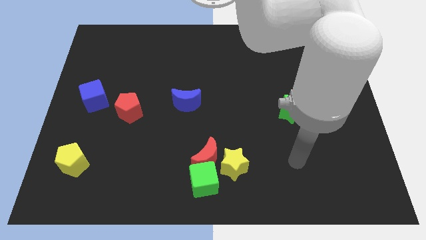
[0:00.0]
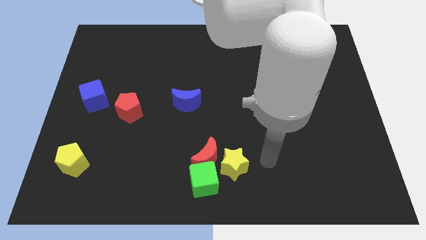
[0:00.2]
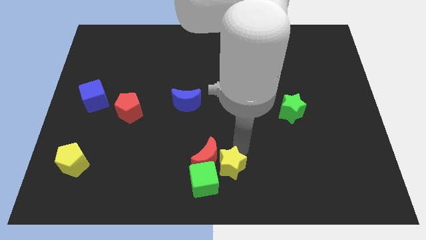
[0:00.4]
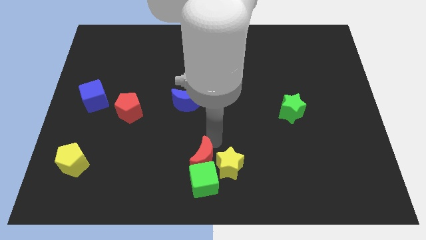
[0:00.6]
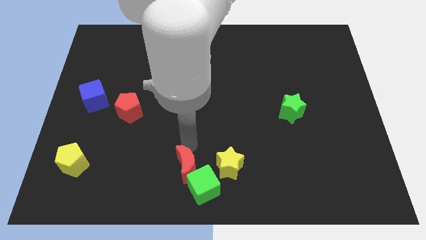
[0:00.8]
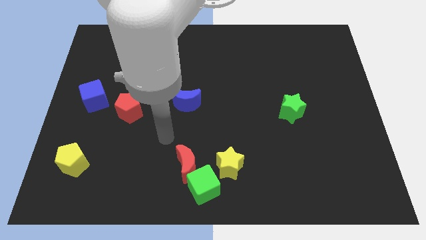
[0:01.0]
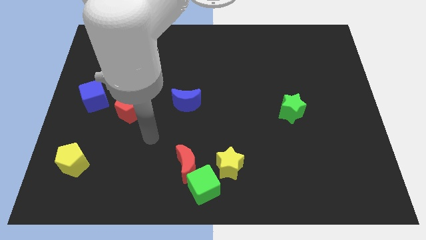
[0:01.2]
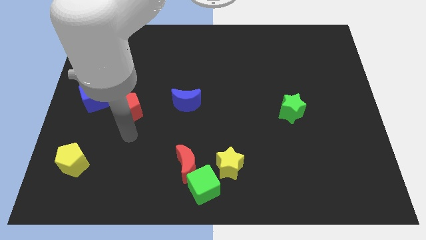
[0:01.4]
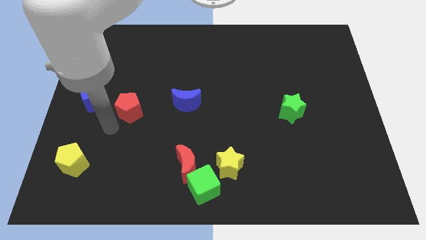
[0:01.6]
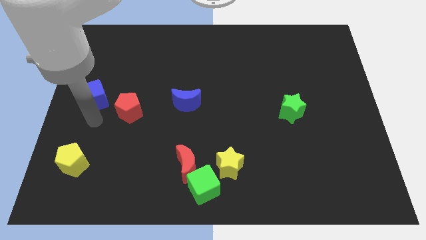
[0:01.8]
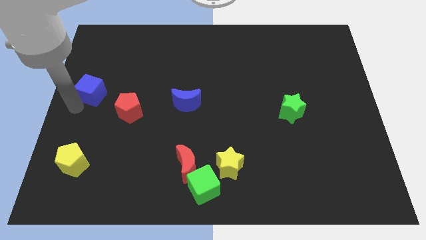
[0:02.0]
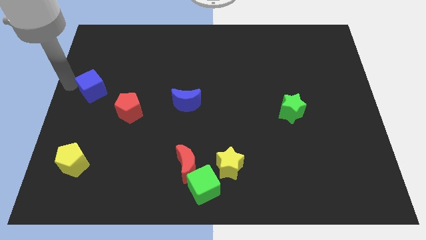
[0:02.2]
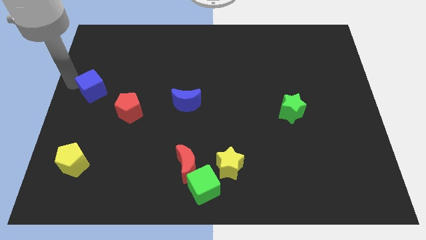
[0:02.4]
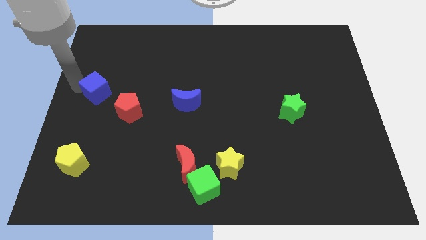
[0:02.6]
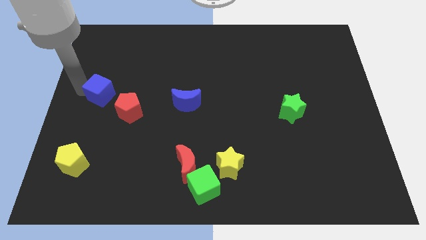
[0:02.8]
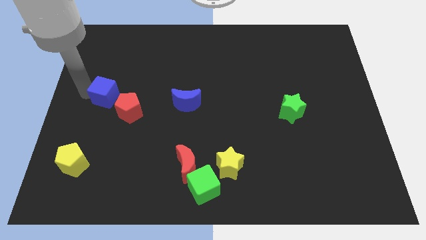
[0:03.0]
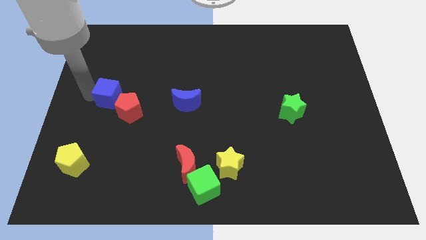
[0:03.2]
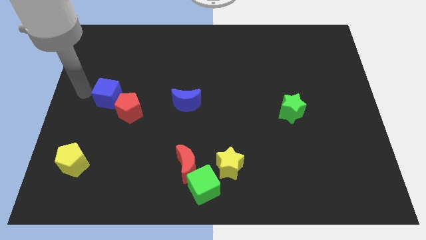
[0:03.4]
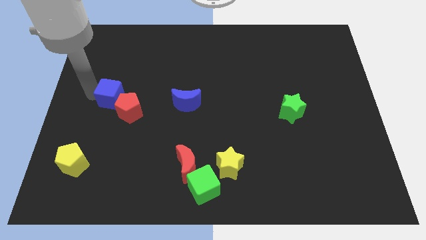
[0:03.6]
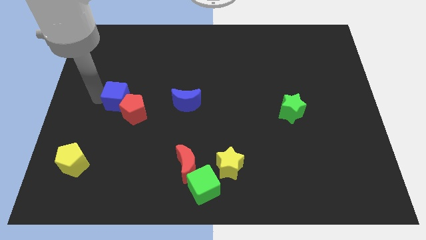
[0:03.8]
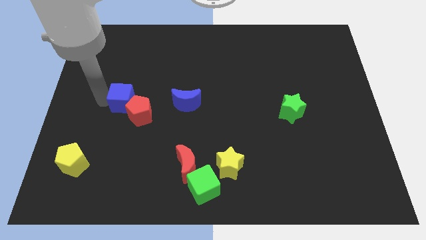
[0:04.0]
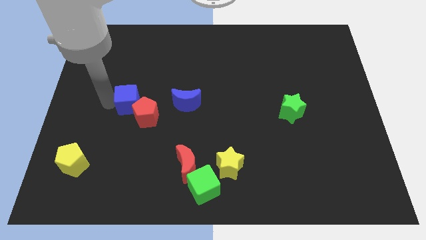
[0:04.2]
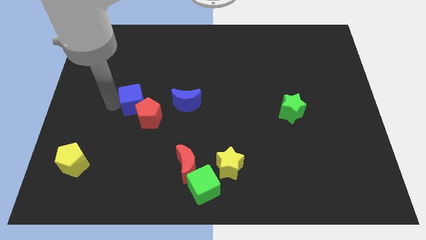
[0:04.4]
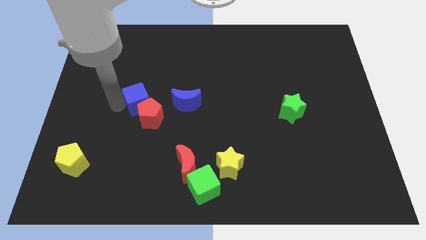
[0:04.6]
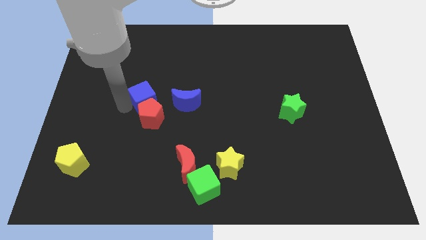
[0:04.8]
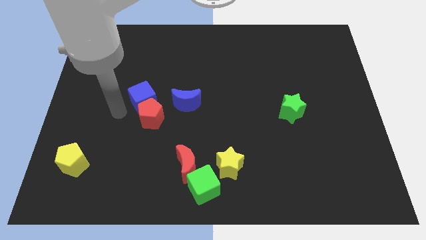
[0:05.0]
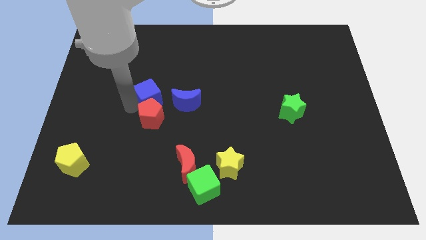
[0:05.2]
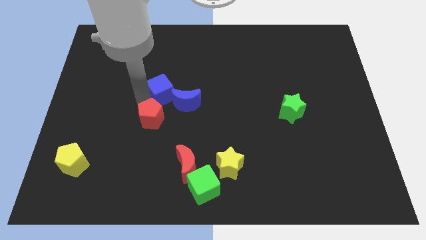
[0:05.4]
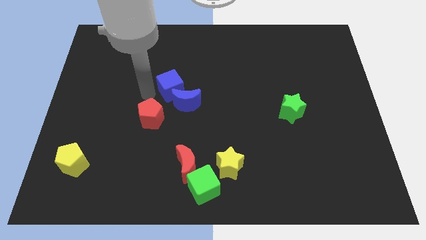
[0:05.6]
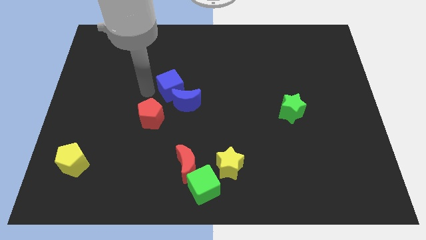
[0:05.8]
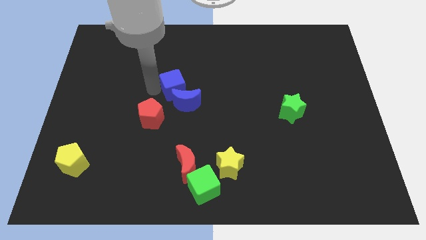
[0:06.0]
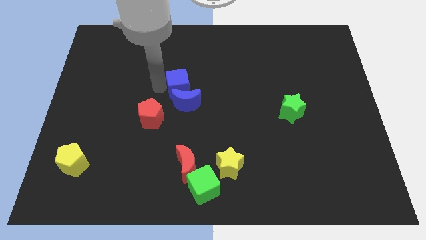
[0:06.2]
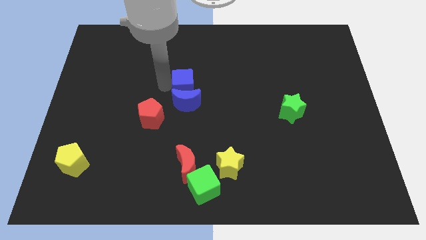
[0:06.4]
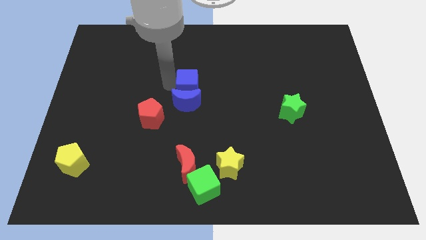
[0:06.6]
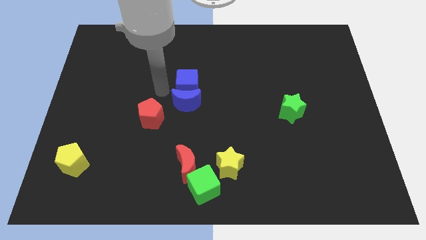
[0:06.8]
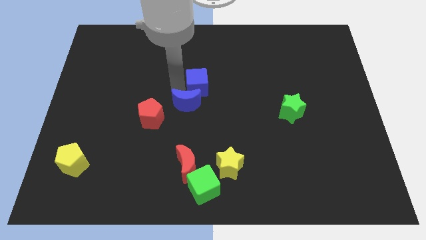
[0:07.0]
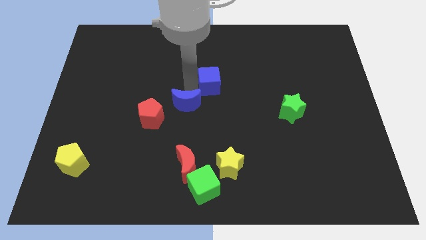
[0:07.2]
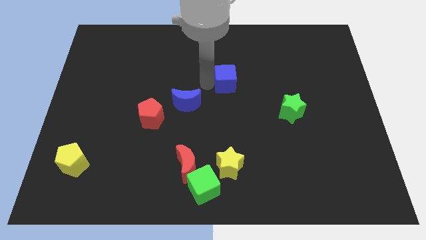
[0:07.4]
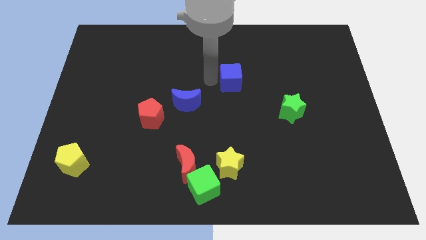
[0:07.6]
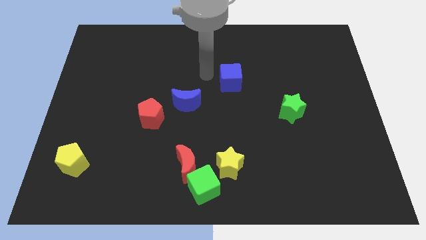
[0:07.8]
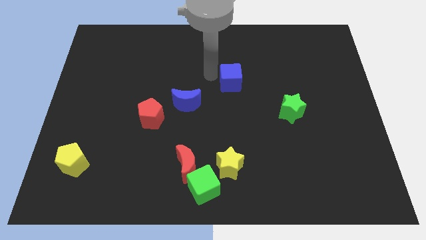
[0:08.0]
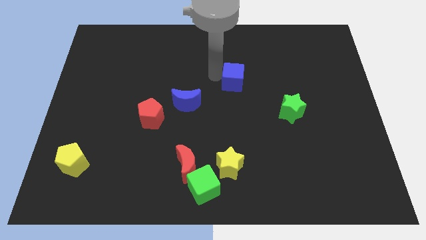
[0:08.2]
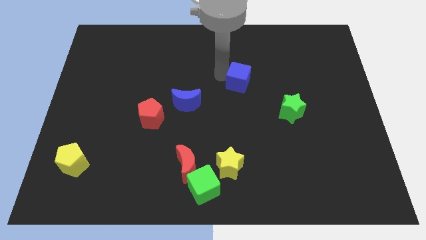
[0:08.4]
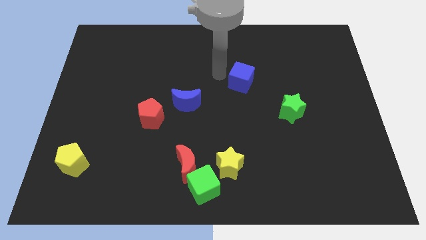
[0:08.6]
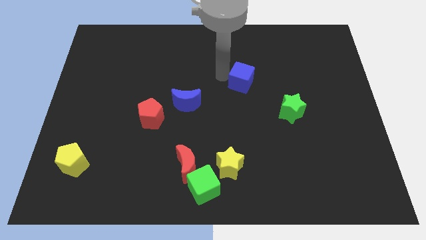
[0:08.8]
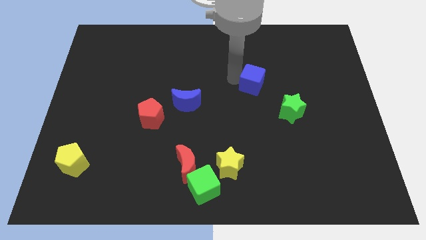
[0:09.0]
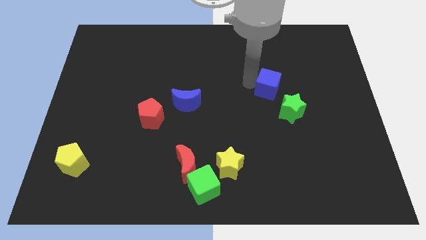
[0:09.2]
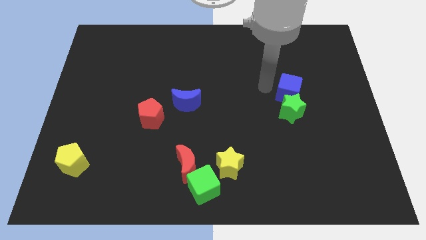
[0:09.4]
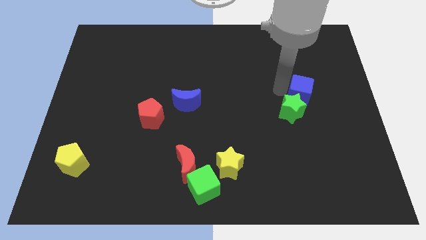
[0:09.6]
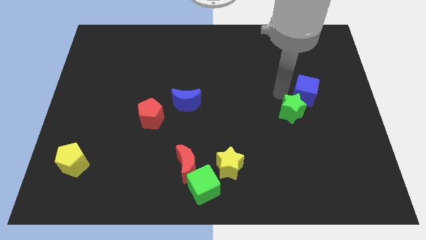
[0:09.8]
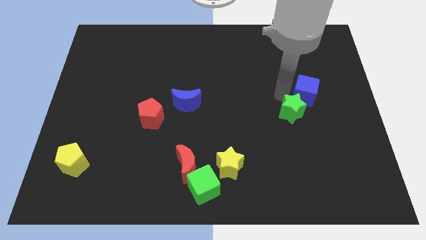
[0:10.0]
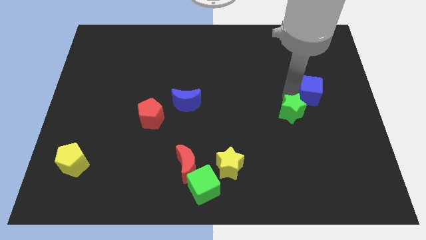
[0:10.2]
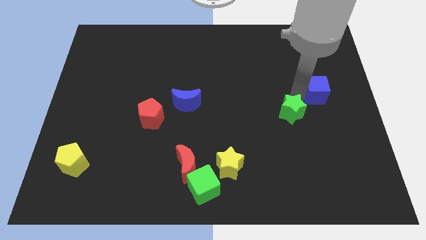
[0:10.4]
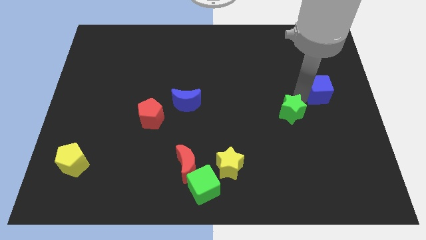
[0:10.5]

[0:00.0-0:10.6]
put the blue cube to the right side

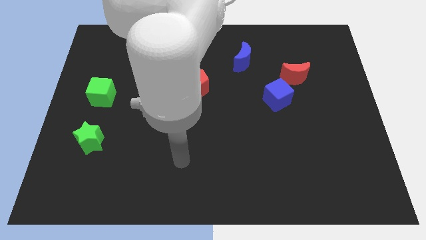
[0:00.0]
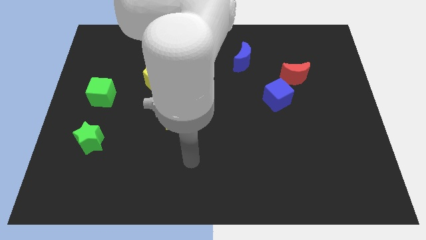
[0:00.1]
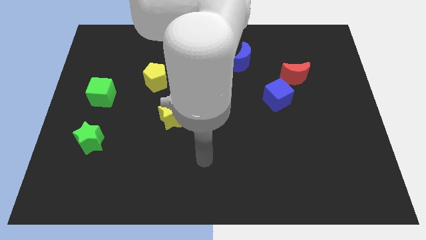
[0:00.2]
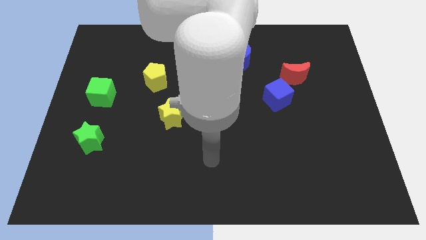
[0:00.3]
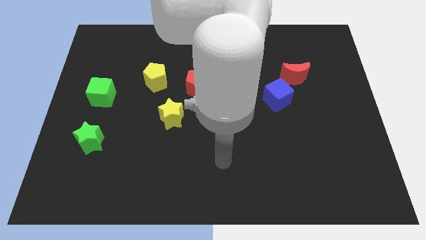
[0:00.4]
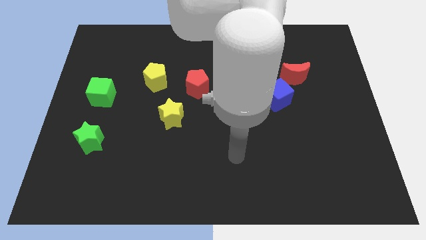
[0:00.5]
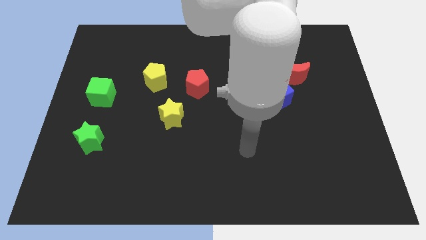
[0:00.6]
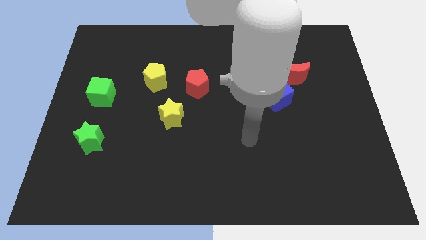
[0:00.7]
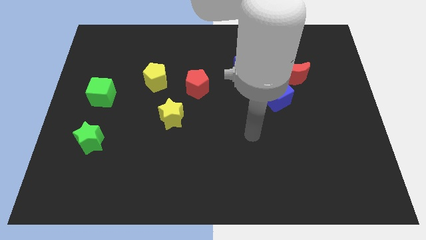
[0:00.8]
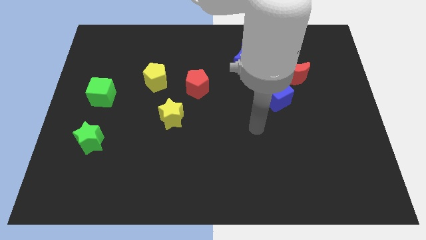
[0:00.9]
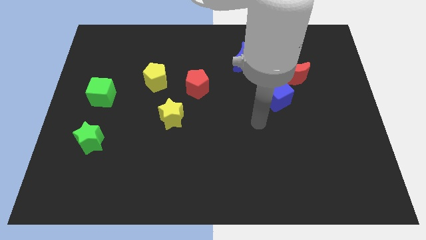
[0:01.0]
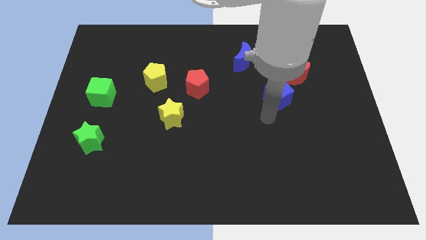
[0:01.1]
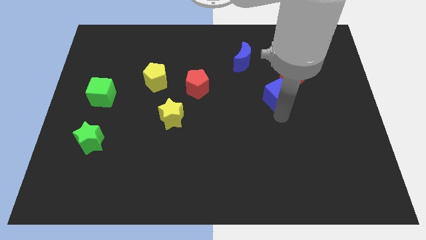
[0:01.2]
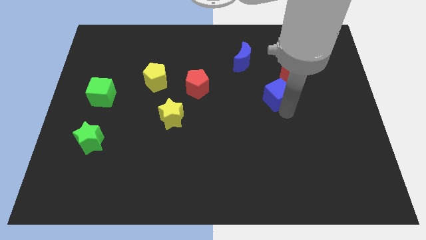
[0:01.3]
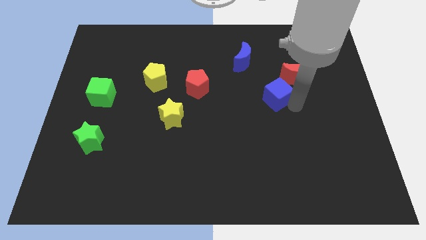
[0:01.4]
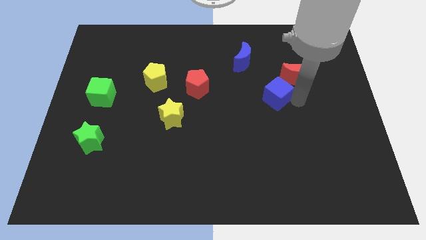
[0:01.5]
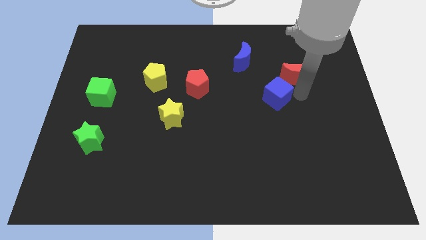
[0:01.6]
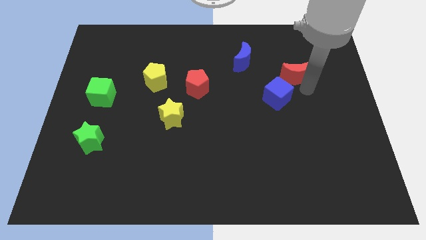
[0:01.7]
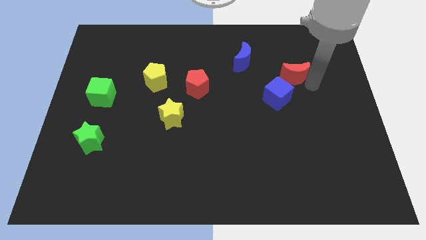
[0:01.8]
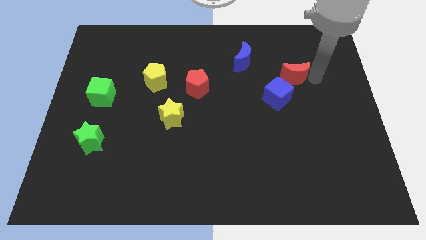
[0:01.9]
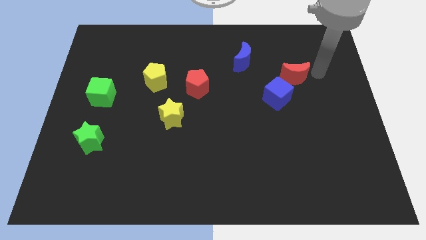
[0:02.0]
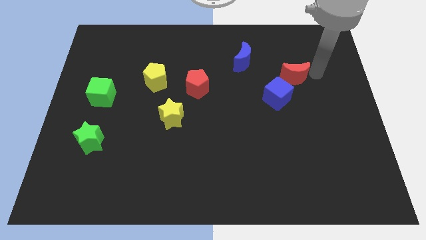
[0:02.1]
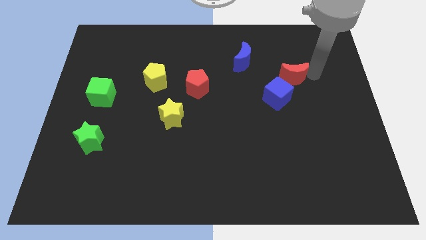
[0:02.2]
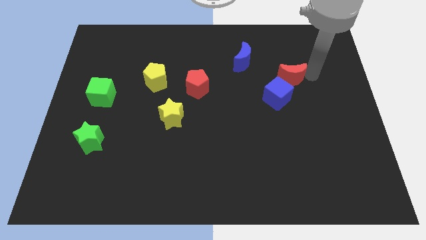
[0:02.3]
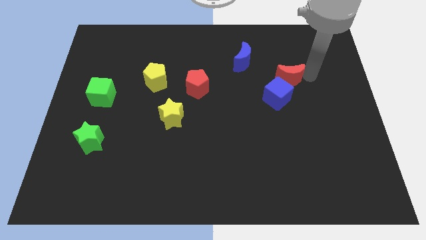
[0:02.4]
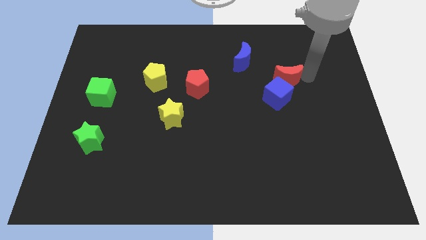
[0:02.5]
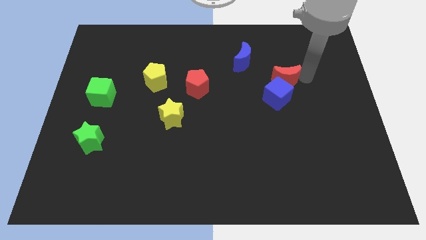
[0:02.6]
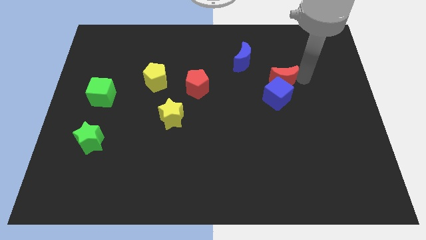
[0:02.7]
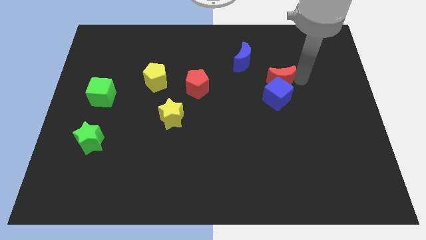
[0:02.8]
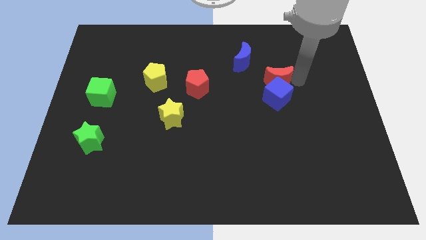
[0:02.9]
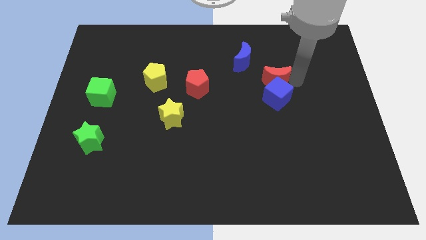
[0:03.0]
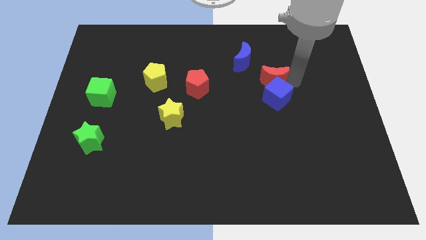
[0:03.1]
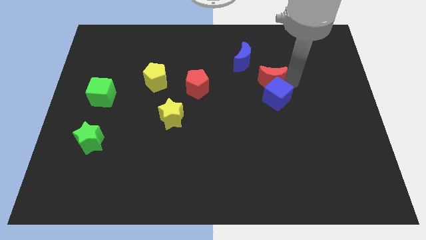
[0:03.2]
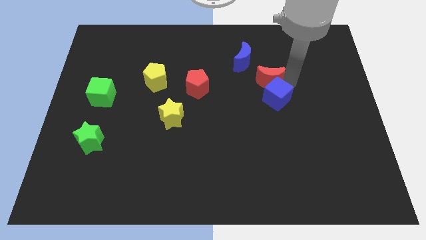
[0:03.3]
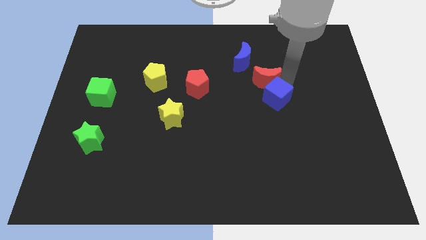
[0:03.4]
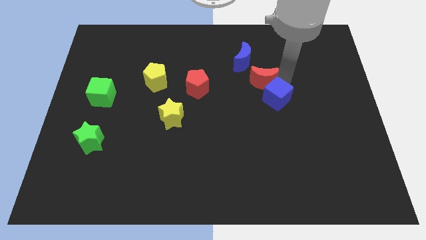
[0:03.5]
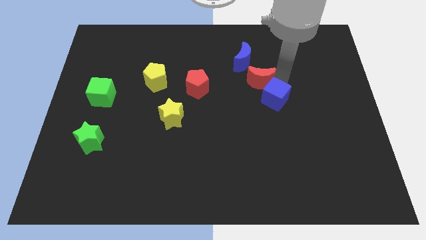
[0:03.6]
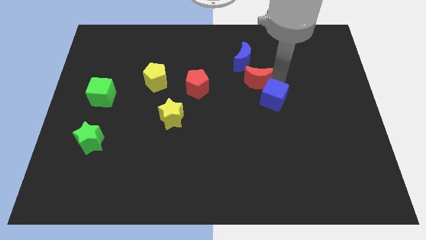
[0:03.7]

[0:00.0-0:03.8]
put the red moon to the middle
